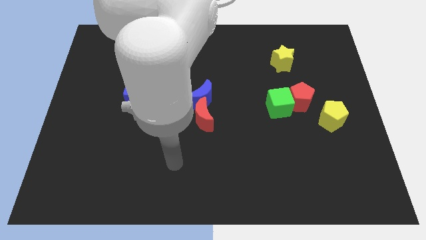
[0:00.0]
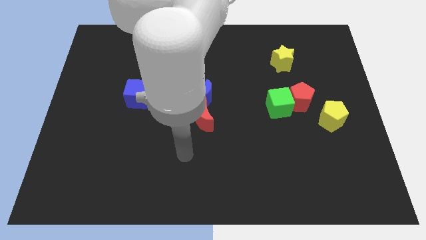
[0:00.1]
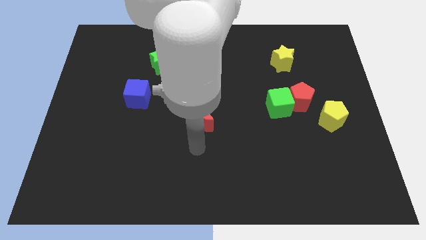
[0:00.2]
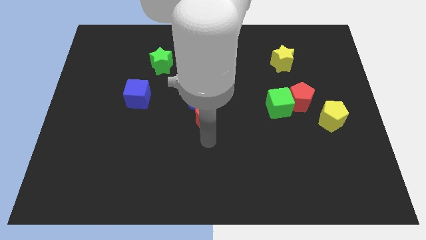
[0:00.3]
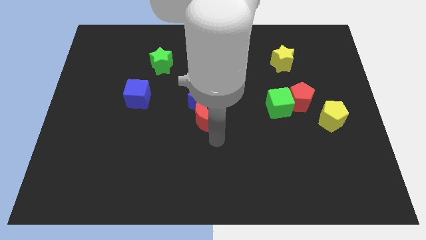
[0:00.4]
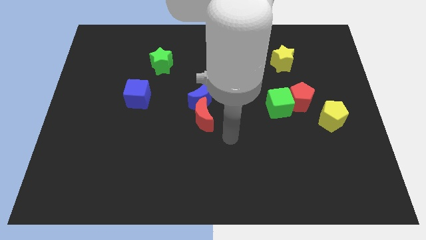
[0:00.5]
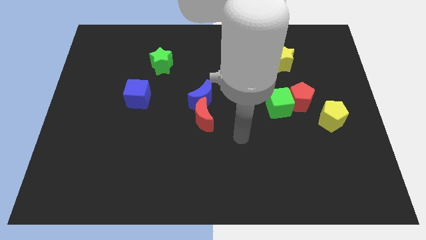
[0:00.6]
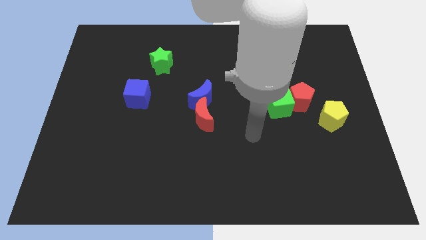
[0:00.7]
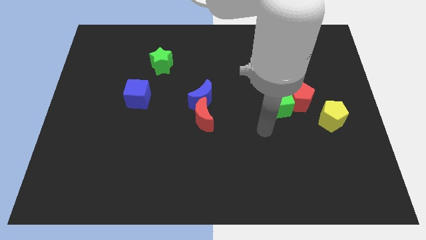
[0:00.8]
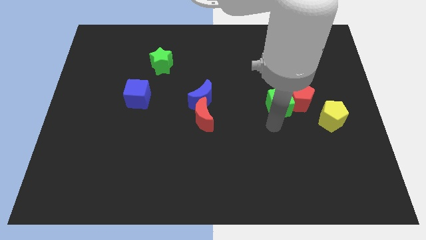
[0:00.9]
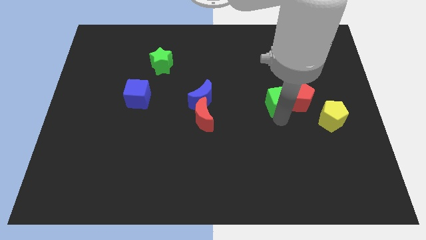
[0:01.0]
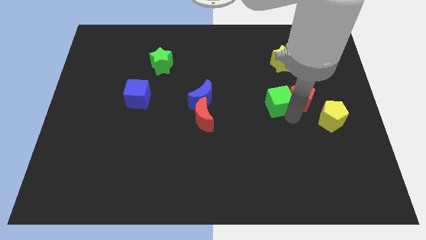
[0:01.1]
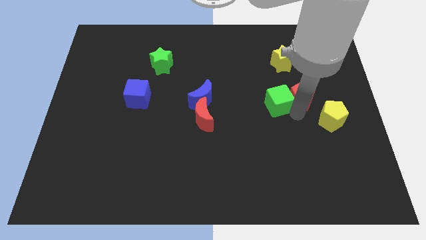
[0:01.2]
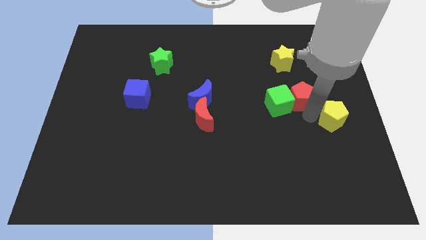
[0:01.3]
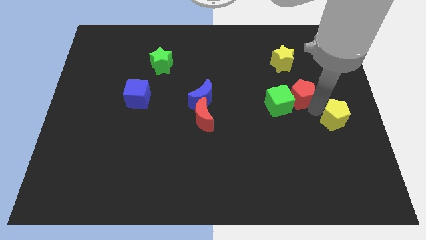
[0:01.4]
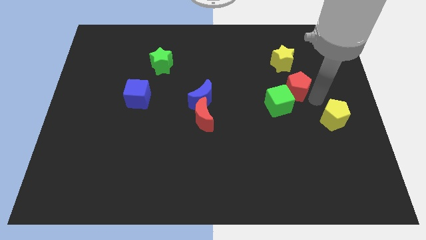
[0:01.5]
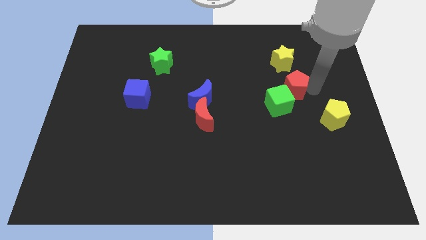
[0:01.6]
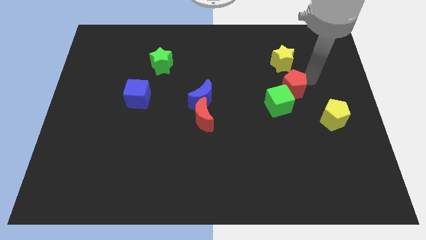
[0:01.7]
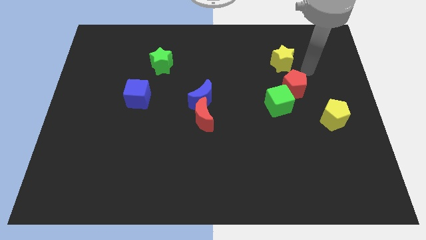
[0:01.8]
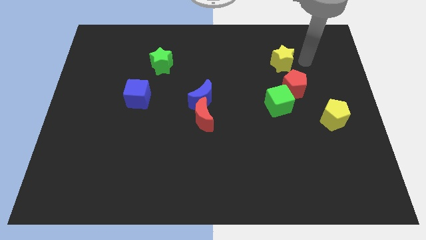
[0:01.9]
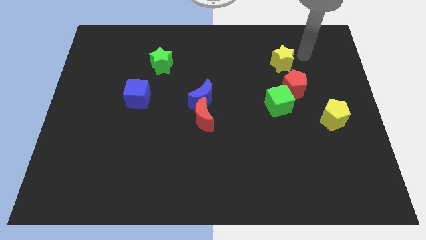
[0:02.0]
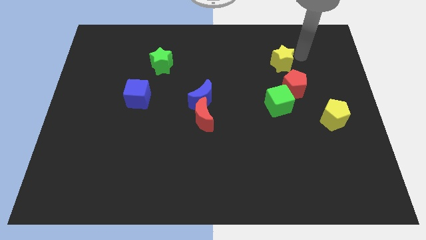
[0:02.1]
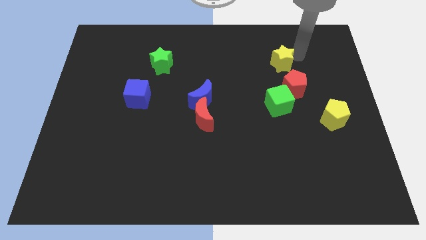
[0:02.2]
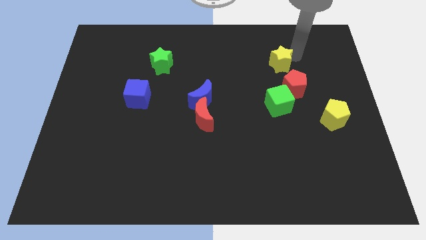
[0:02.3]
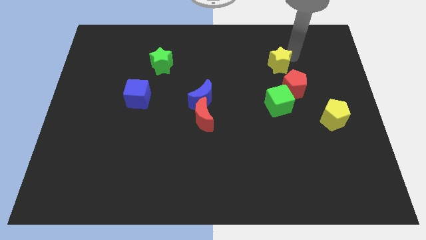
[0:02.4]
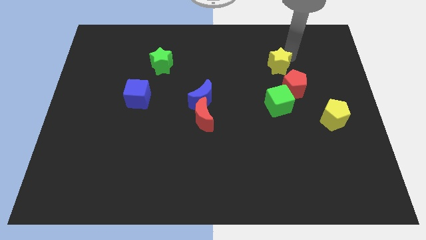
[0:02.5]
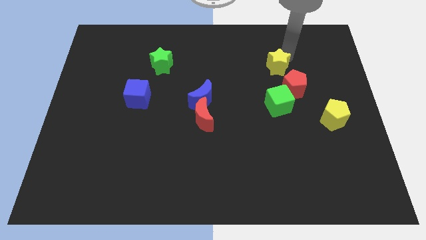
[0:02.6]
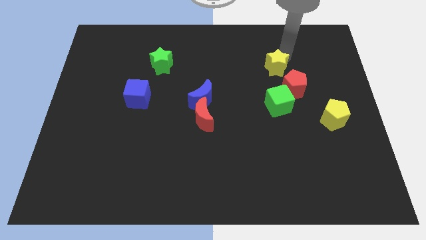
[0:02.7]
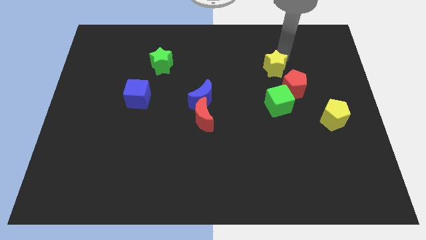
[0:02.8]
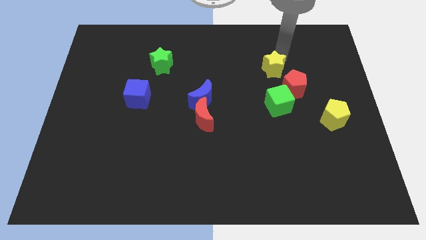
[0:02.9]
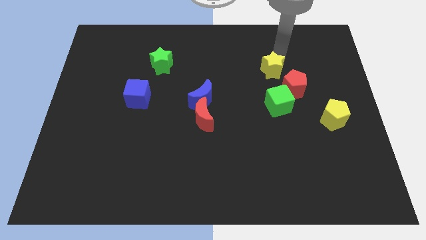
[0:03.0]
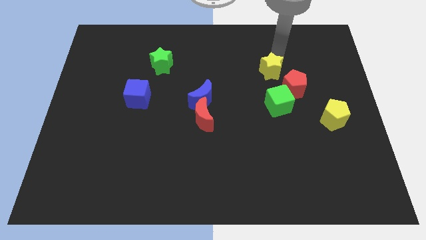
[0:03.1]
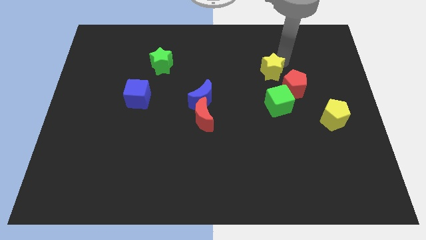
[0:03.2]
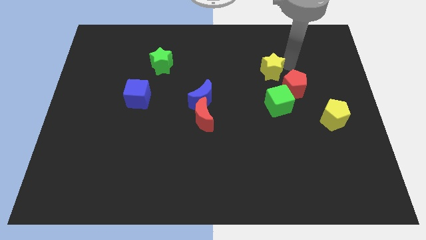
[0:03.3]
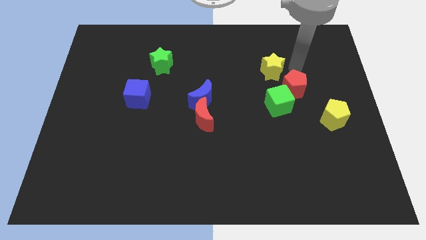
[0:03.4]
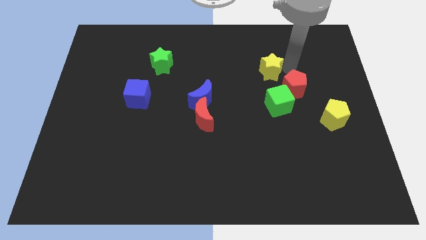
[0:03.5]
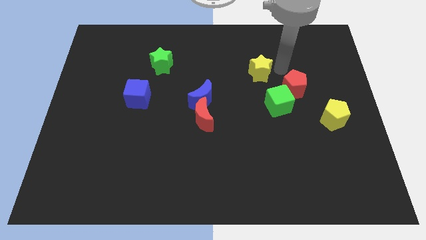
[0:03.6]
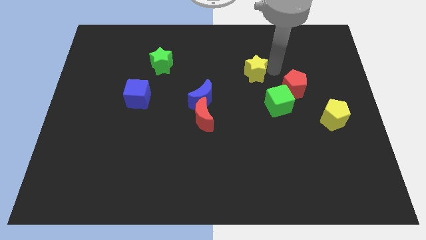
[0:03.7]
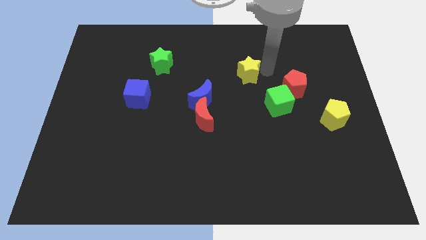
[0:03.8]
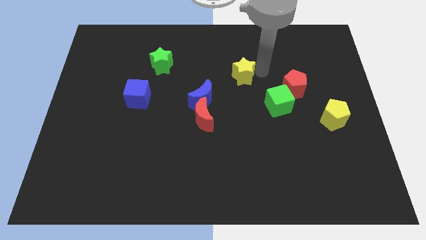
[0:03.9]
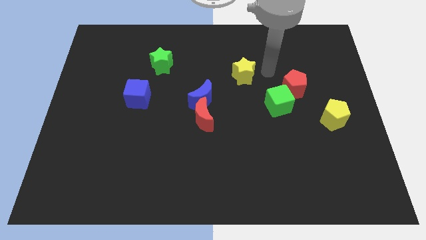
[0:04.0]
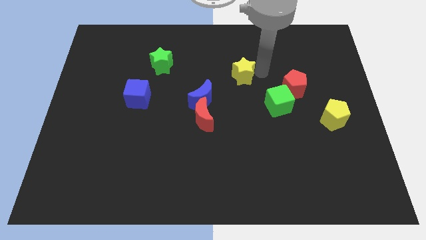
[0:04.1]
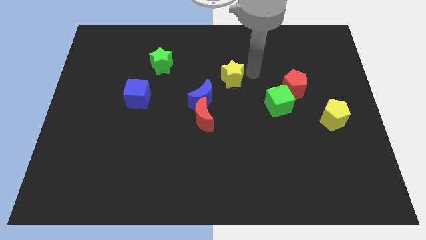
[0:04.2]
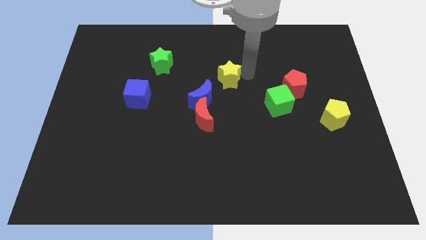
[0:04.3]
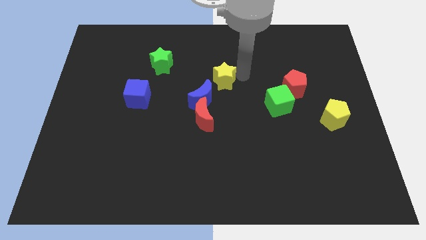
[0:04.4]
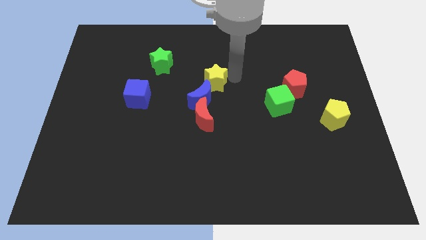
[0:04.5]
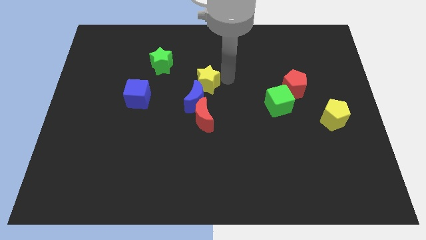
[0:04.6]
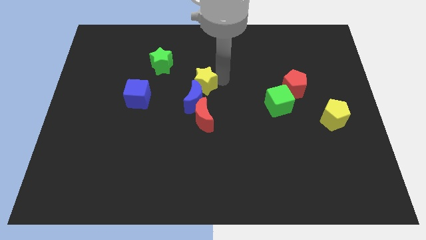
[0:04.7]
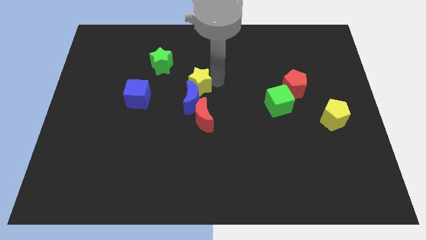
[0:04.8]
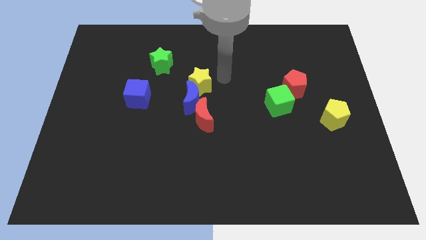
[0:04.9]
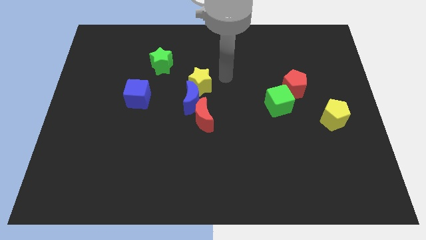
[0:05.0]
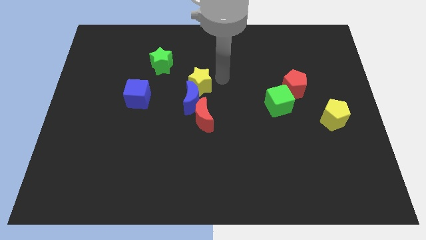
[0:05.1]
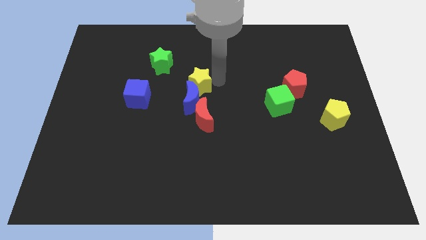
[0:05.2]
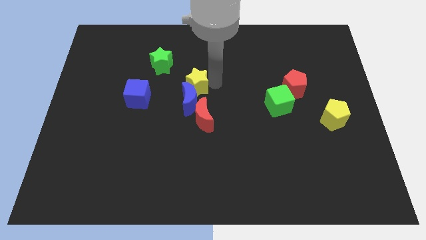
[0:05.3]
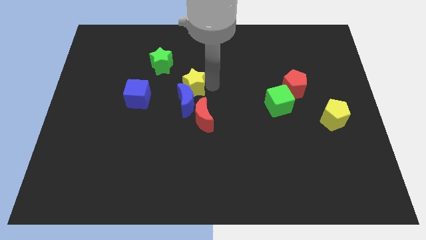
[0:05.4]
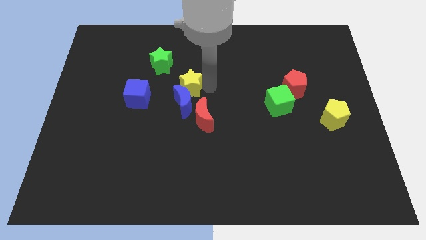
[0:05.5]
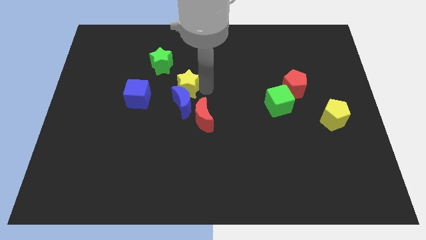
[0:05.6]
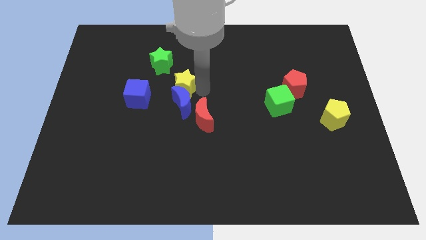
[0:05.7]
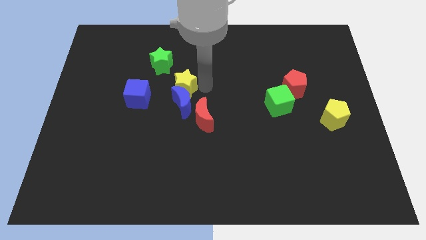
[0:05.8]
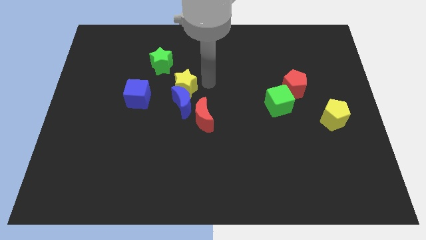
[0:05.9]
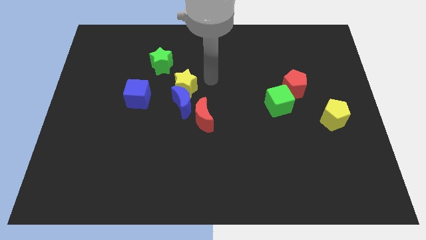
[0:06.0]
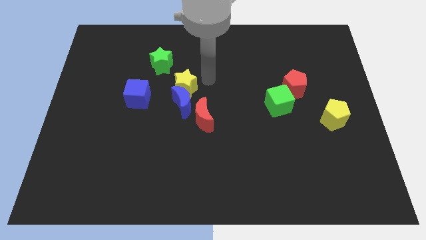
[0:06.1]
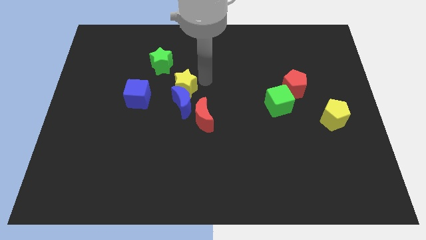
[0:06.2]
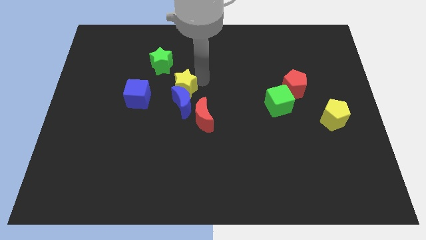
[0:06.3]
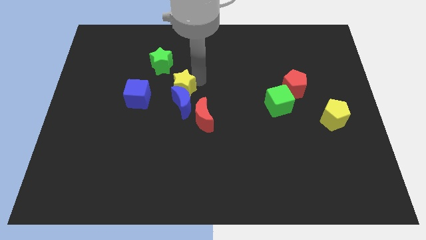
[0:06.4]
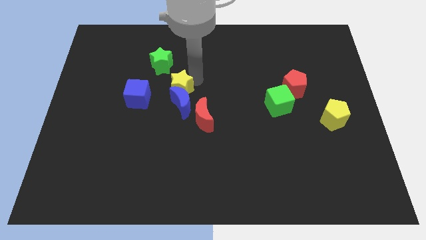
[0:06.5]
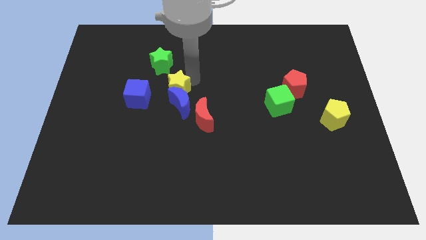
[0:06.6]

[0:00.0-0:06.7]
move the yellow star to the bottom of the green star

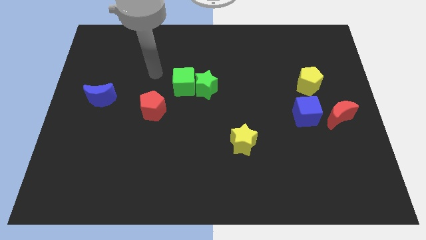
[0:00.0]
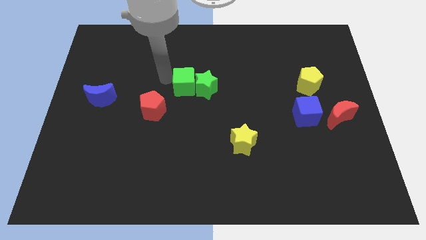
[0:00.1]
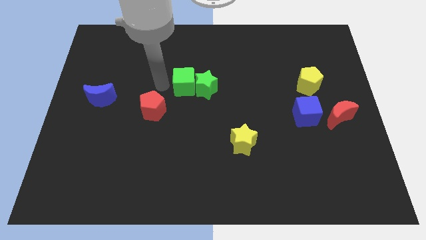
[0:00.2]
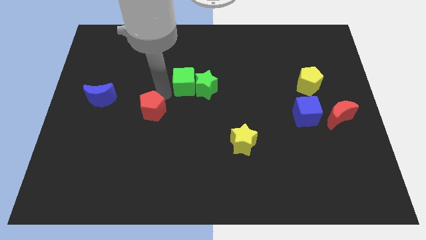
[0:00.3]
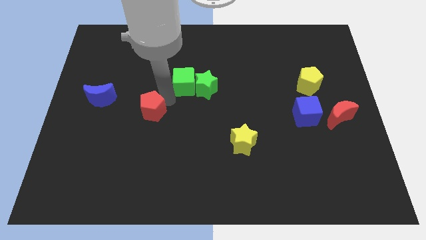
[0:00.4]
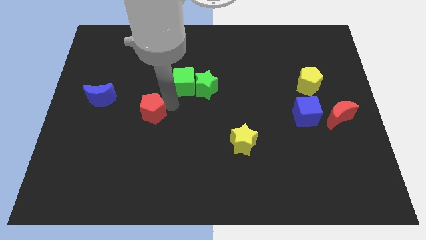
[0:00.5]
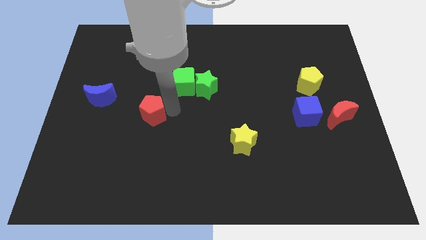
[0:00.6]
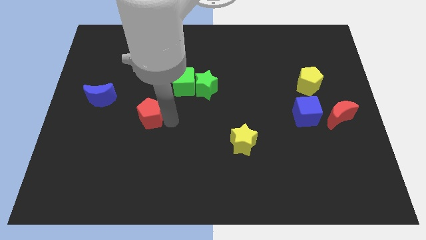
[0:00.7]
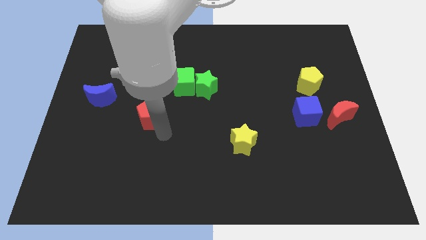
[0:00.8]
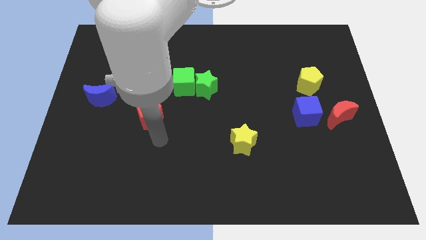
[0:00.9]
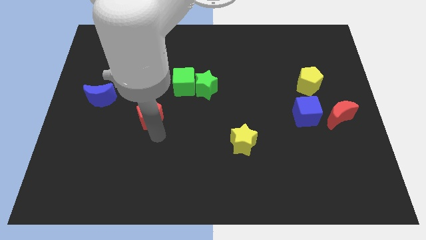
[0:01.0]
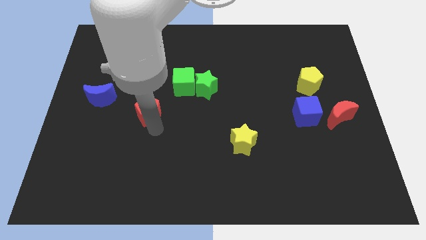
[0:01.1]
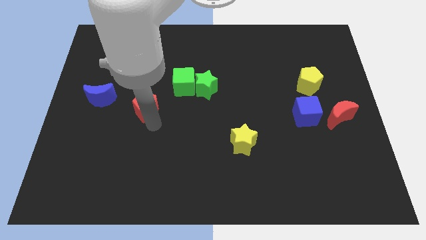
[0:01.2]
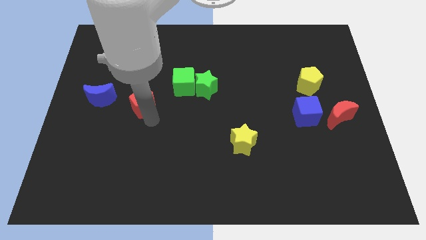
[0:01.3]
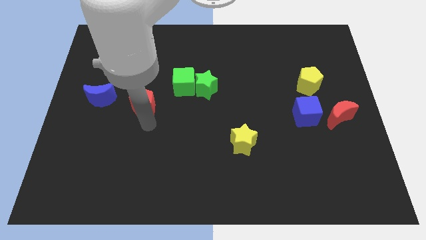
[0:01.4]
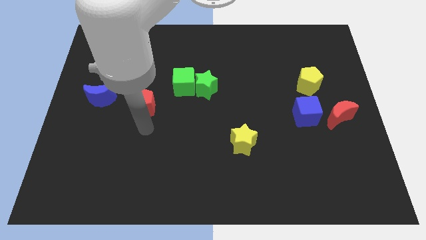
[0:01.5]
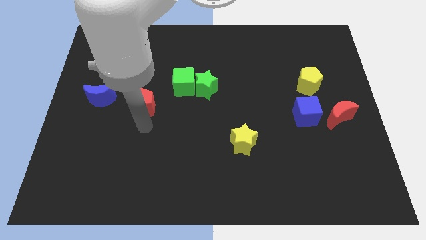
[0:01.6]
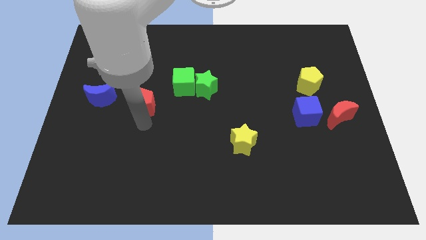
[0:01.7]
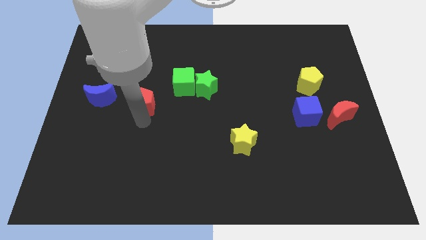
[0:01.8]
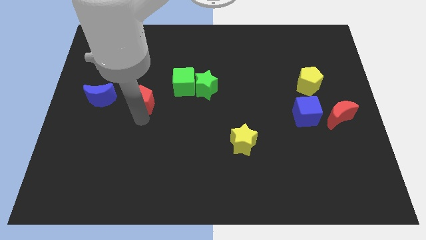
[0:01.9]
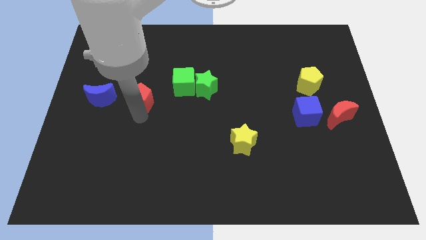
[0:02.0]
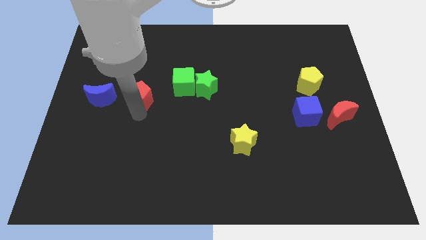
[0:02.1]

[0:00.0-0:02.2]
push the red pentagon to the left of the green cube
